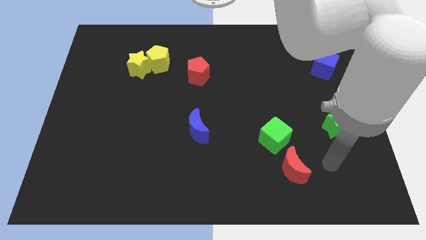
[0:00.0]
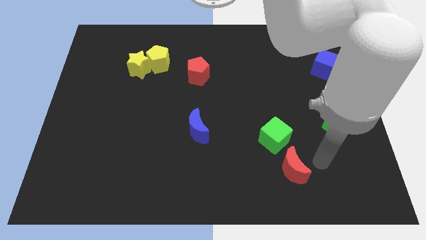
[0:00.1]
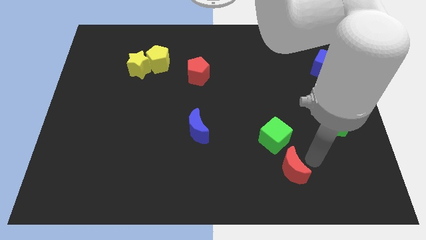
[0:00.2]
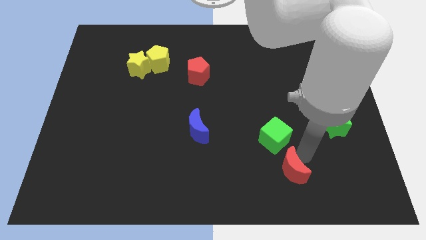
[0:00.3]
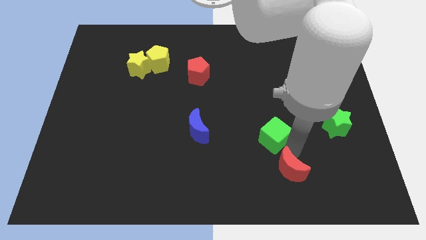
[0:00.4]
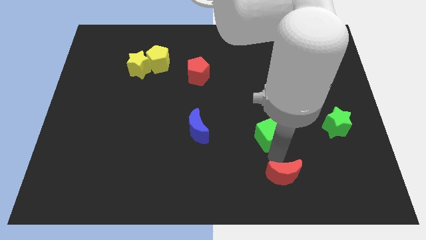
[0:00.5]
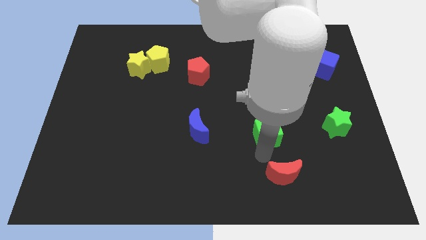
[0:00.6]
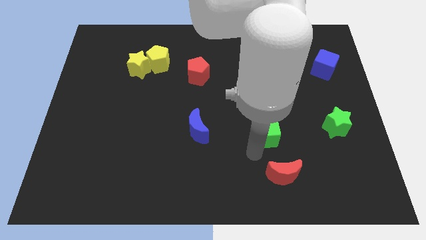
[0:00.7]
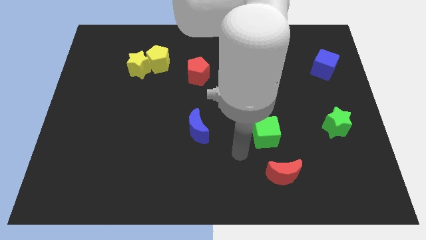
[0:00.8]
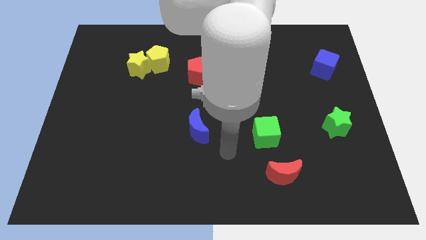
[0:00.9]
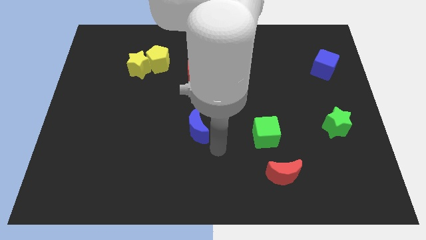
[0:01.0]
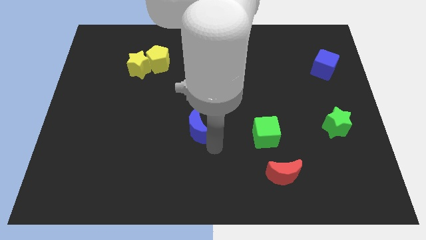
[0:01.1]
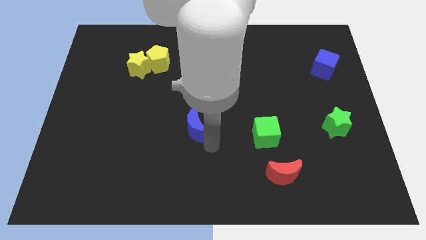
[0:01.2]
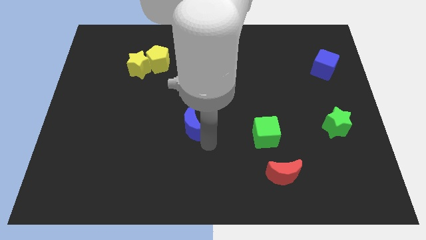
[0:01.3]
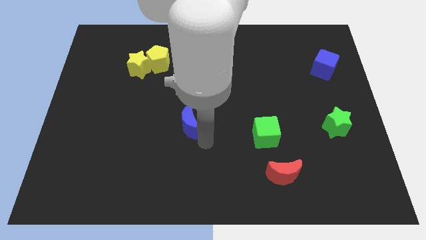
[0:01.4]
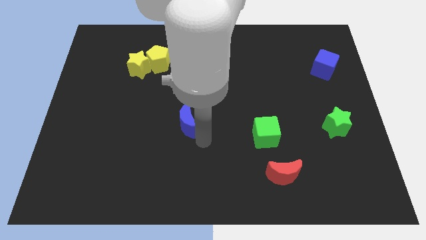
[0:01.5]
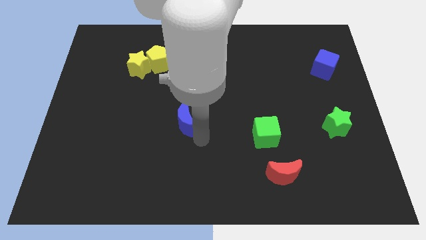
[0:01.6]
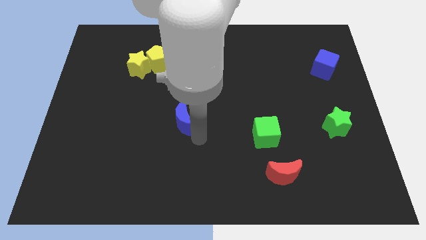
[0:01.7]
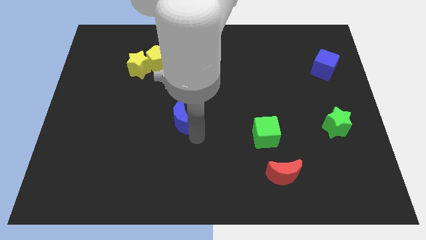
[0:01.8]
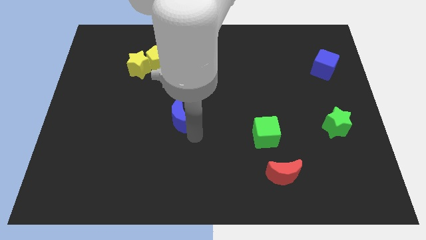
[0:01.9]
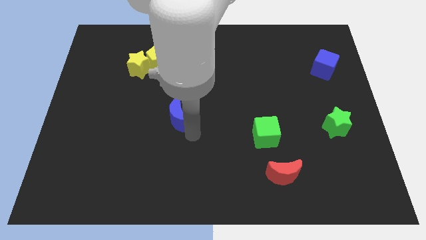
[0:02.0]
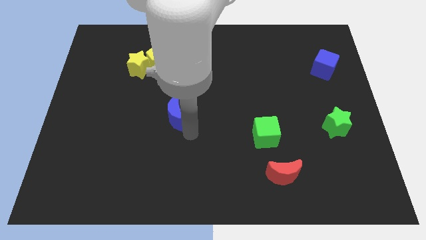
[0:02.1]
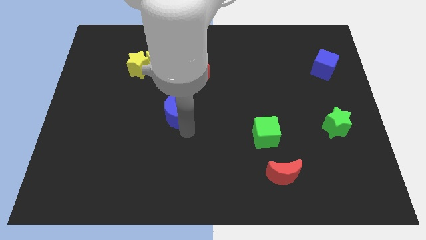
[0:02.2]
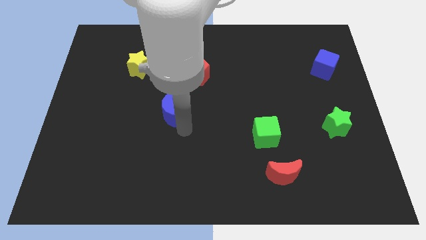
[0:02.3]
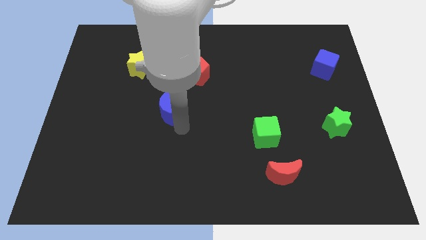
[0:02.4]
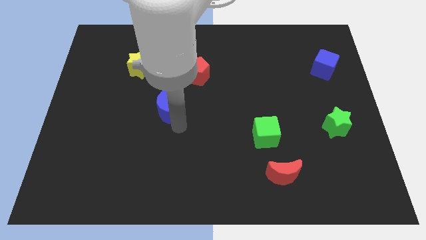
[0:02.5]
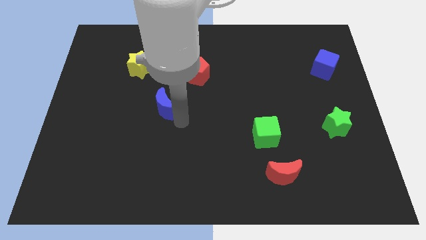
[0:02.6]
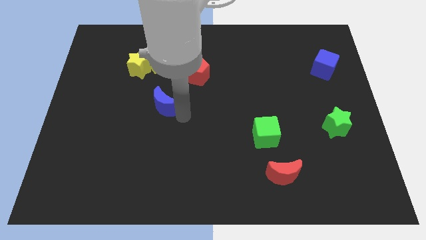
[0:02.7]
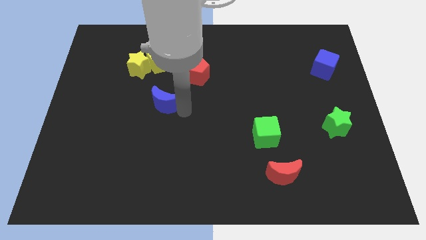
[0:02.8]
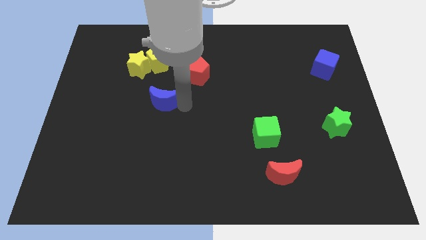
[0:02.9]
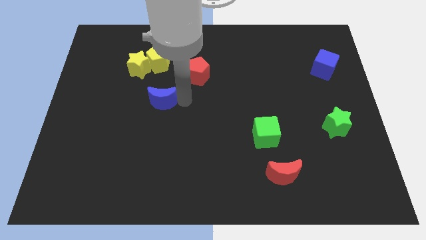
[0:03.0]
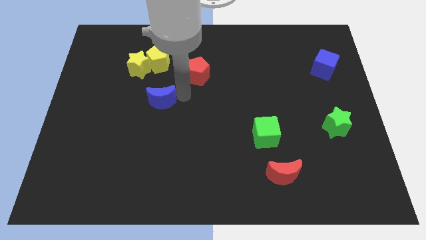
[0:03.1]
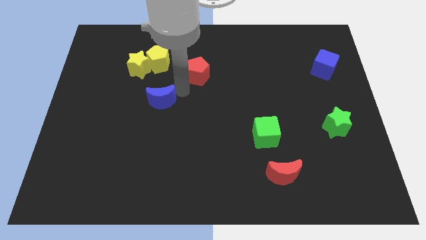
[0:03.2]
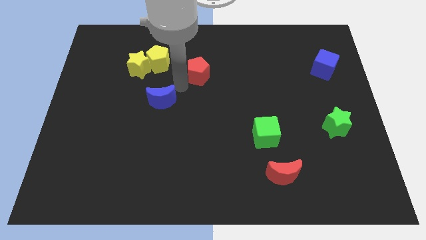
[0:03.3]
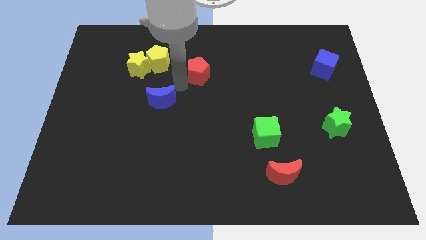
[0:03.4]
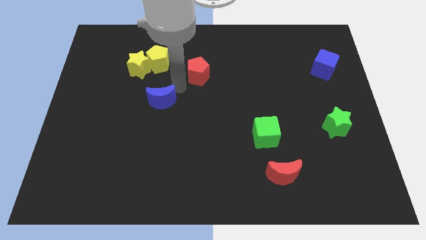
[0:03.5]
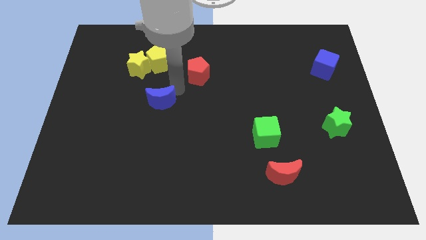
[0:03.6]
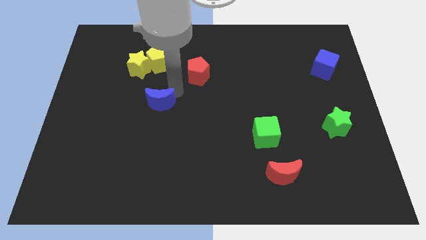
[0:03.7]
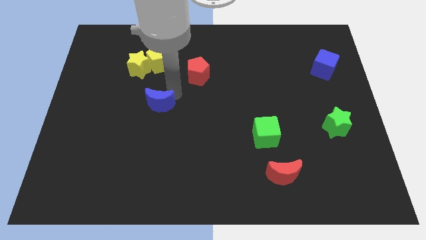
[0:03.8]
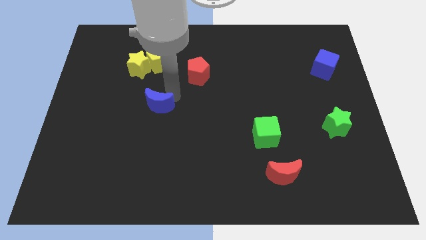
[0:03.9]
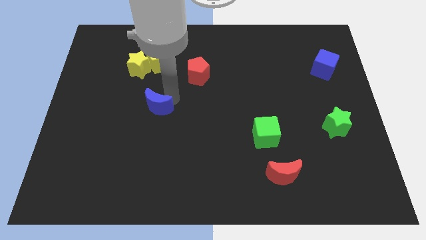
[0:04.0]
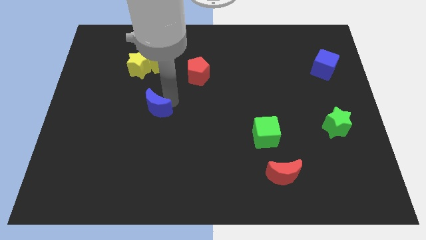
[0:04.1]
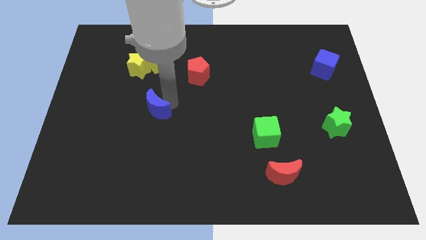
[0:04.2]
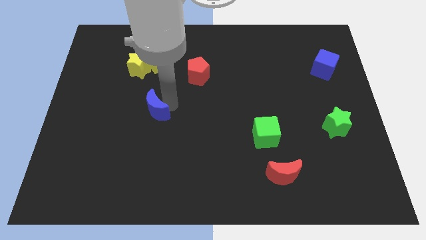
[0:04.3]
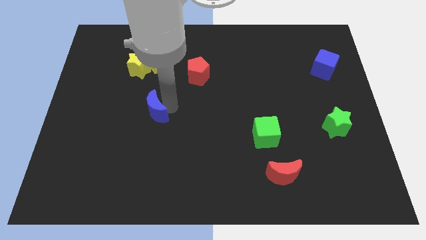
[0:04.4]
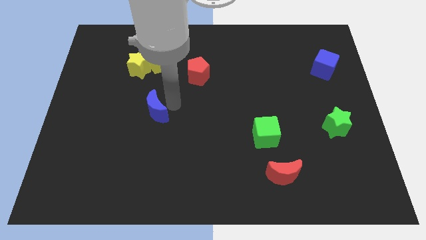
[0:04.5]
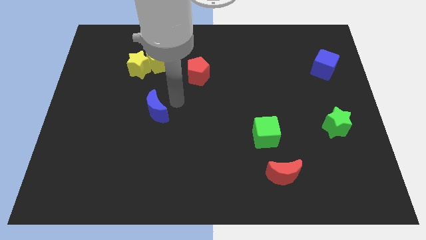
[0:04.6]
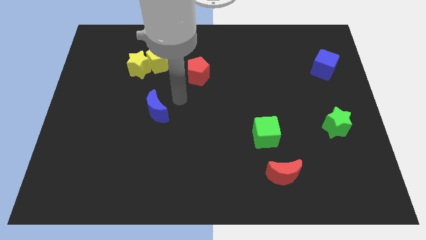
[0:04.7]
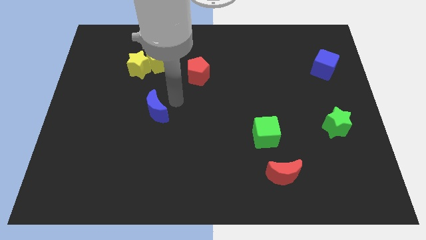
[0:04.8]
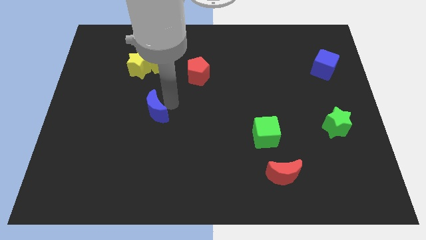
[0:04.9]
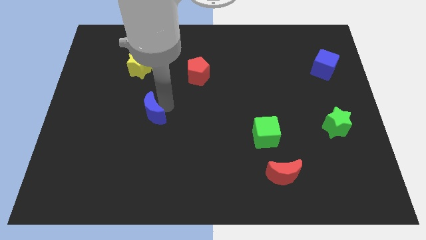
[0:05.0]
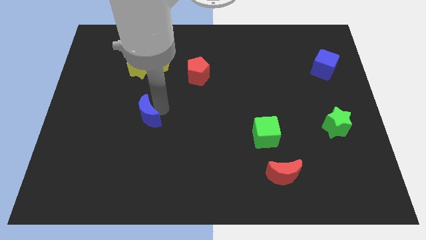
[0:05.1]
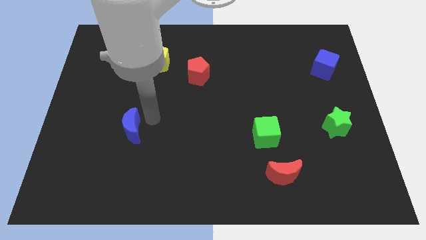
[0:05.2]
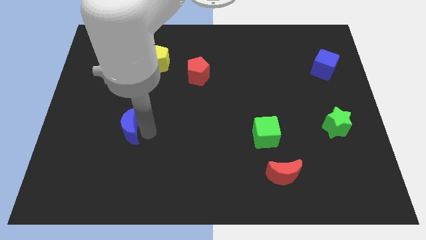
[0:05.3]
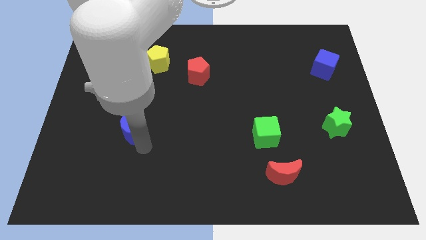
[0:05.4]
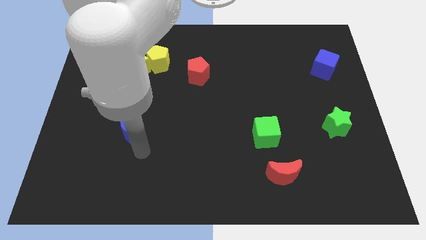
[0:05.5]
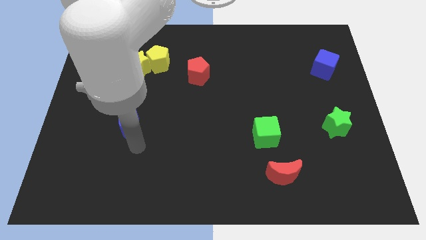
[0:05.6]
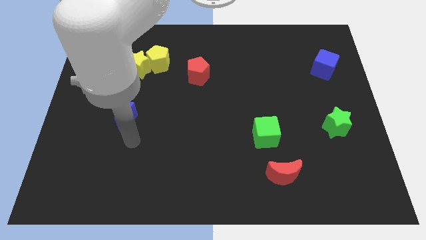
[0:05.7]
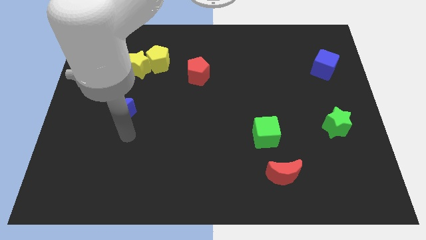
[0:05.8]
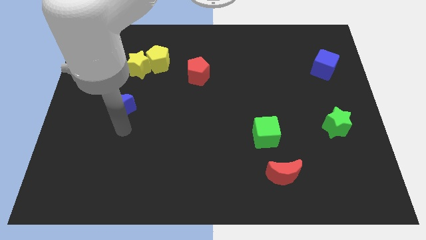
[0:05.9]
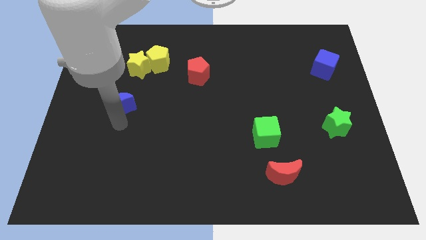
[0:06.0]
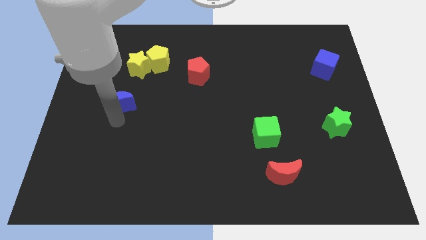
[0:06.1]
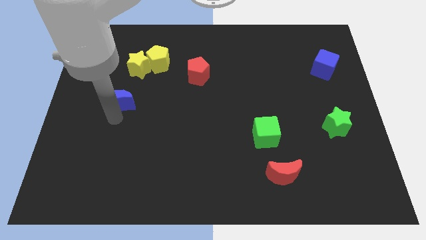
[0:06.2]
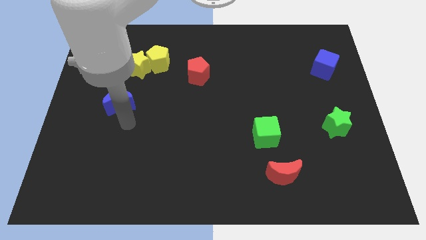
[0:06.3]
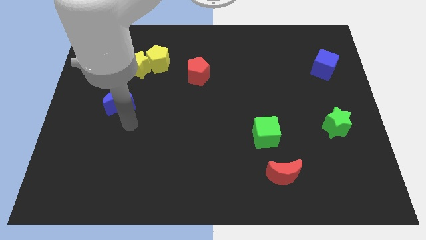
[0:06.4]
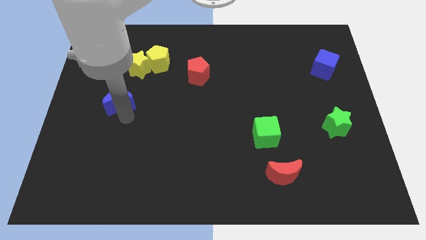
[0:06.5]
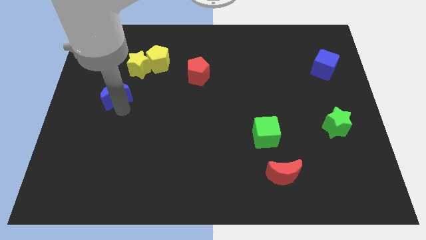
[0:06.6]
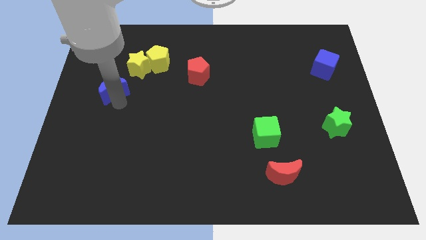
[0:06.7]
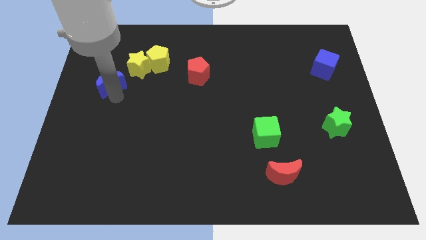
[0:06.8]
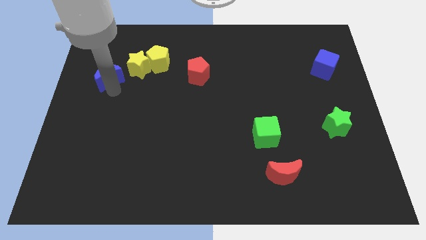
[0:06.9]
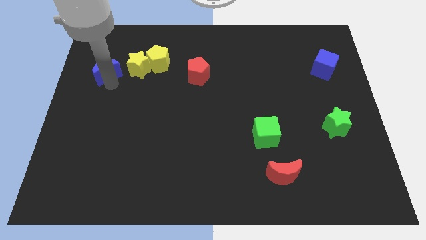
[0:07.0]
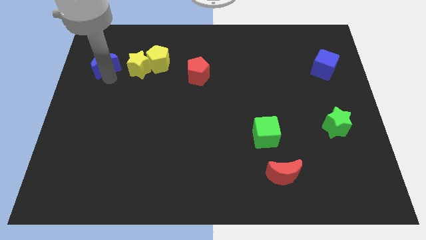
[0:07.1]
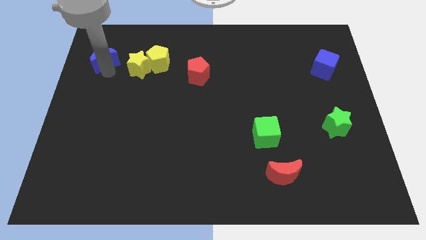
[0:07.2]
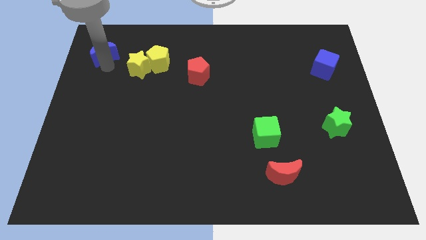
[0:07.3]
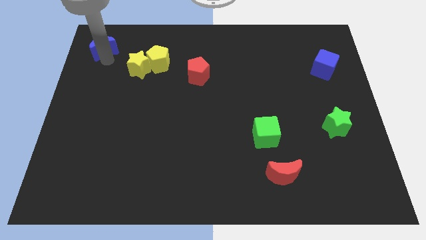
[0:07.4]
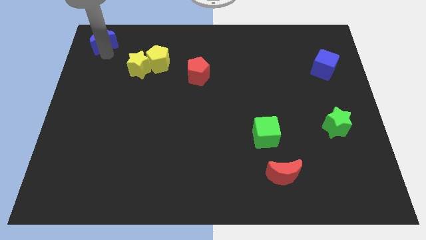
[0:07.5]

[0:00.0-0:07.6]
move the blue moon to the top left of the board
